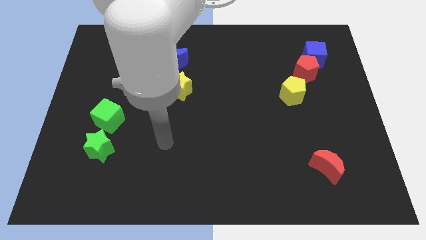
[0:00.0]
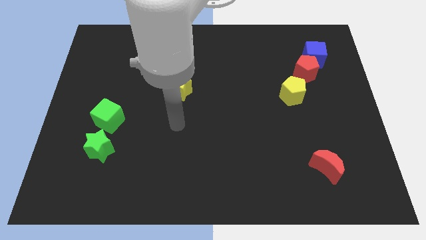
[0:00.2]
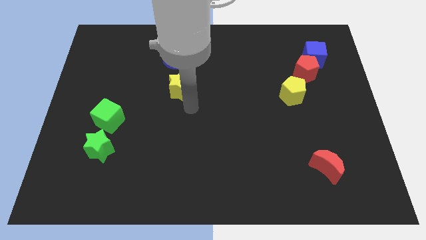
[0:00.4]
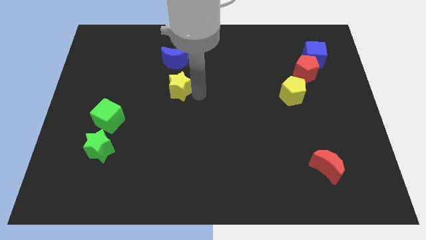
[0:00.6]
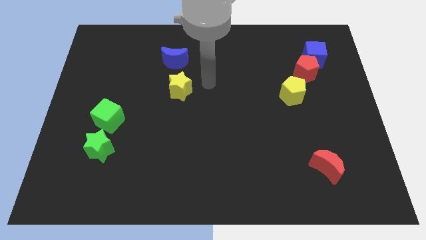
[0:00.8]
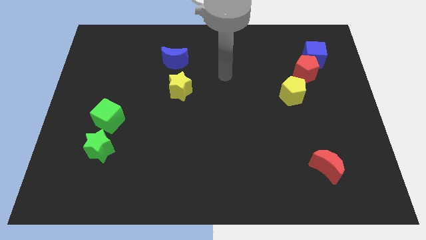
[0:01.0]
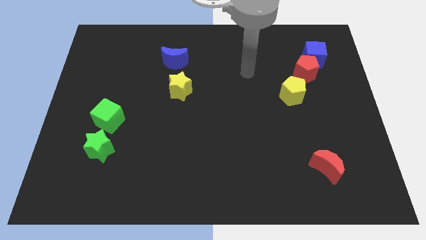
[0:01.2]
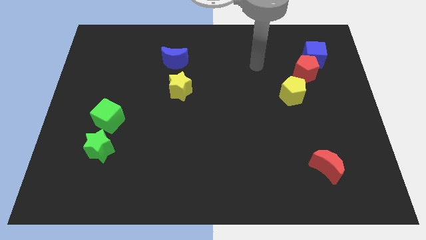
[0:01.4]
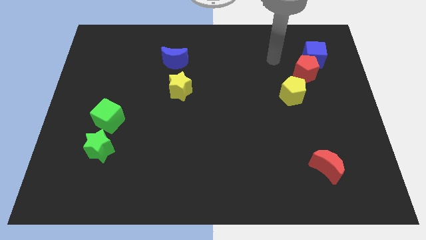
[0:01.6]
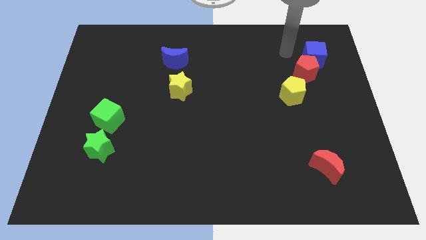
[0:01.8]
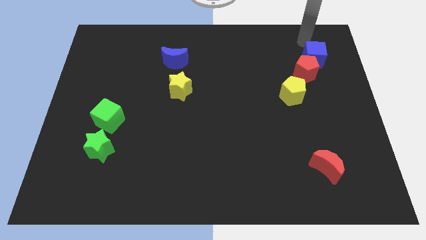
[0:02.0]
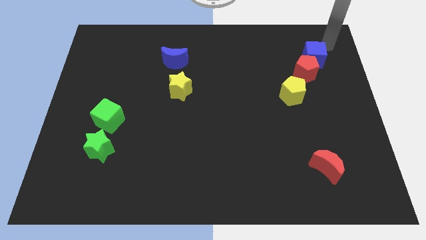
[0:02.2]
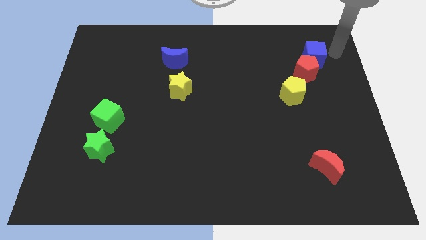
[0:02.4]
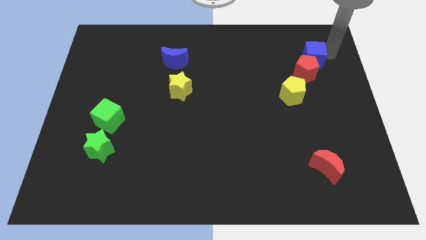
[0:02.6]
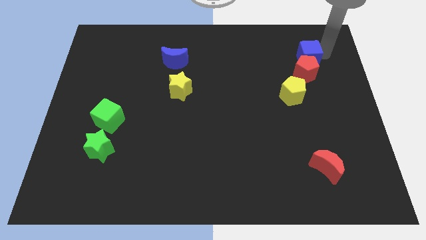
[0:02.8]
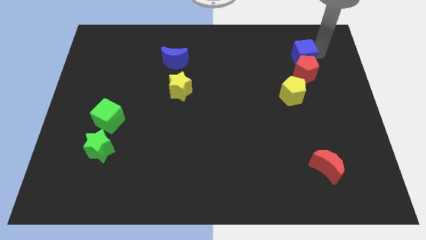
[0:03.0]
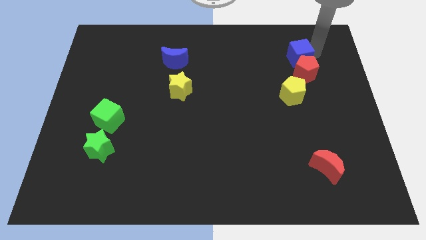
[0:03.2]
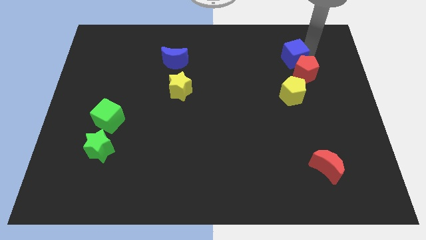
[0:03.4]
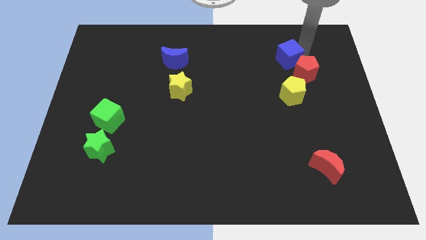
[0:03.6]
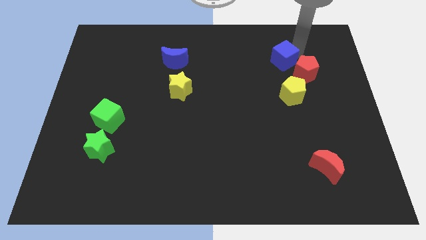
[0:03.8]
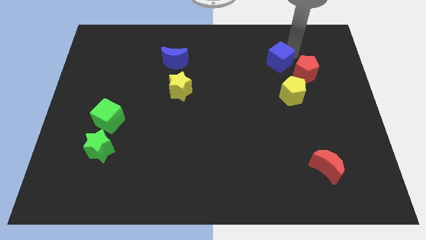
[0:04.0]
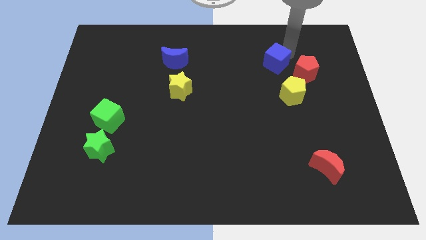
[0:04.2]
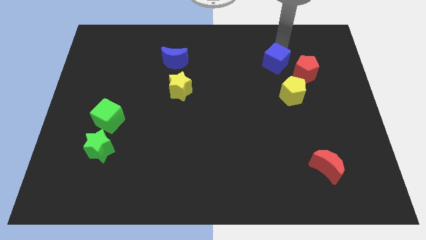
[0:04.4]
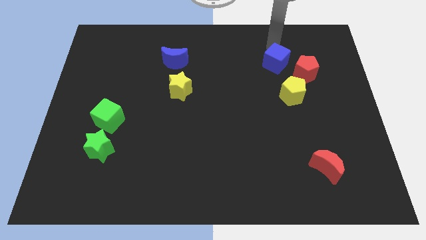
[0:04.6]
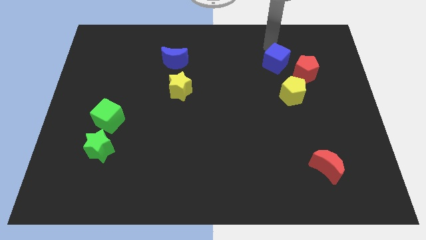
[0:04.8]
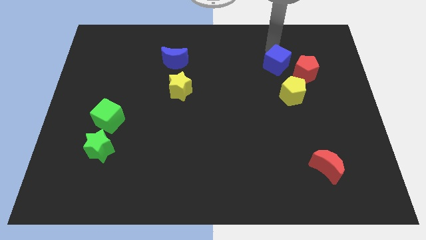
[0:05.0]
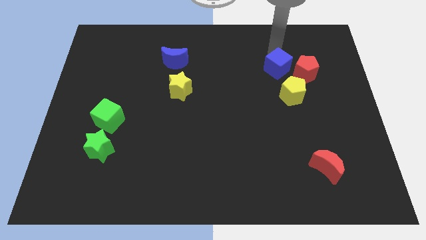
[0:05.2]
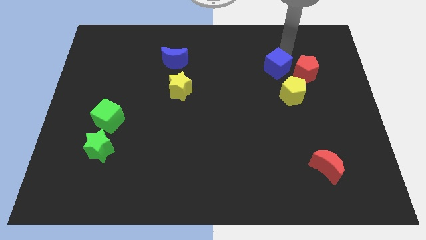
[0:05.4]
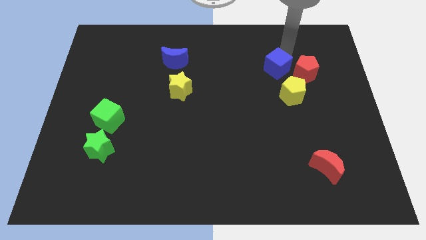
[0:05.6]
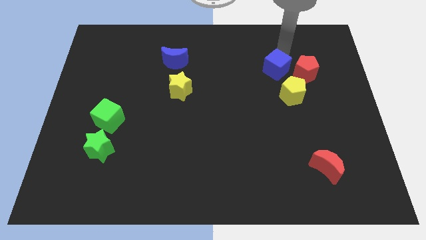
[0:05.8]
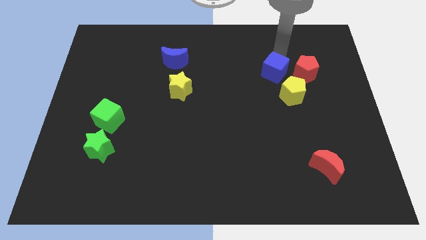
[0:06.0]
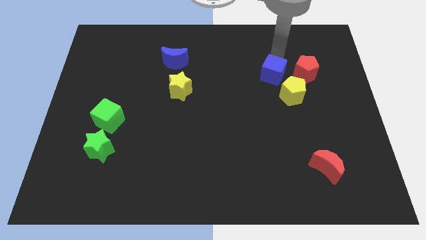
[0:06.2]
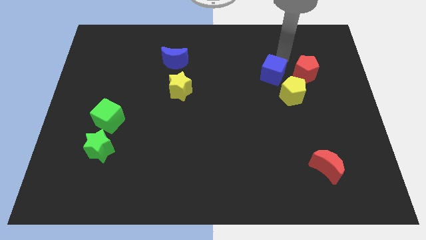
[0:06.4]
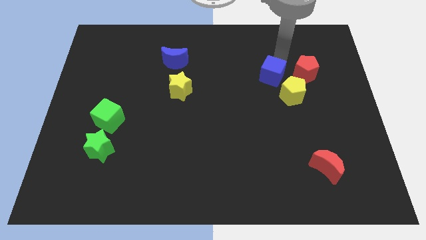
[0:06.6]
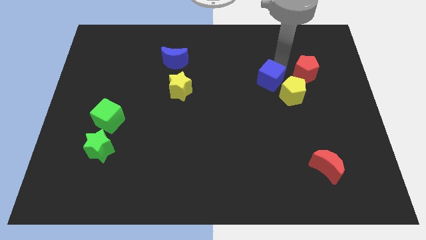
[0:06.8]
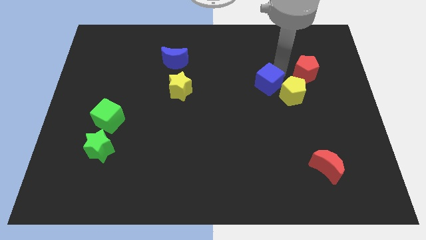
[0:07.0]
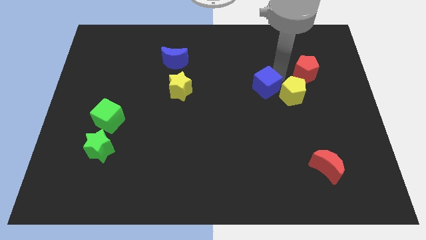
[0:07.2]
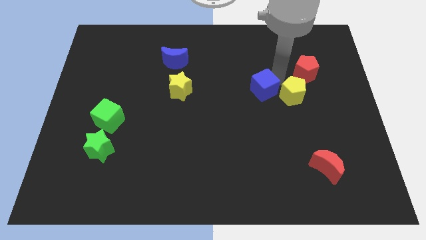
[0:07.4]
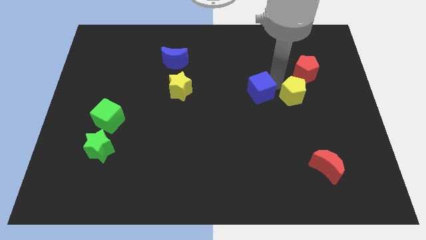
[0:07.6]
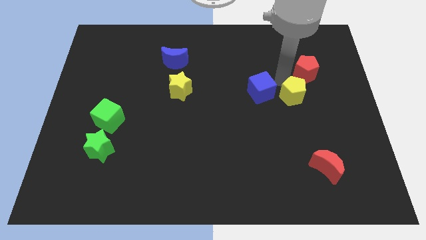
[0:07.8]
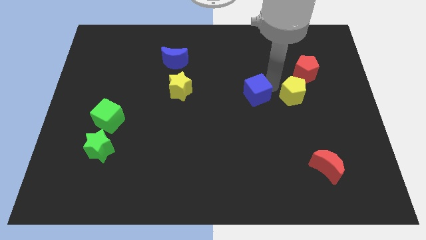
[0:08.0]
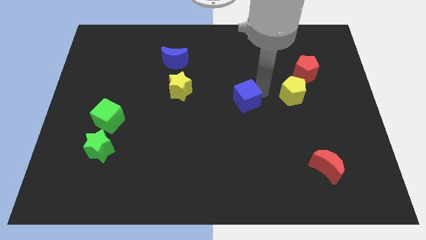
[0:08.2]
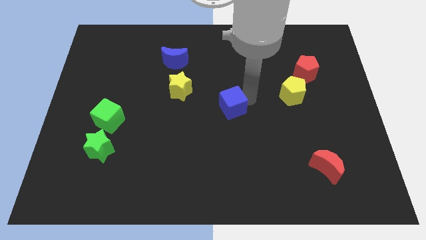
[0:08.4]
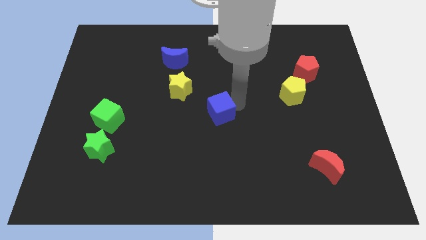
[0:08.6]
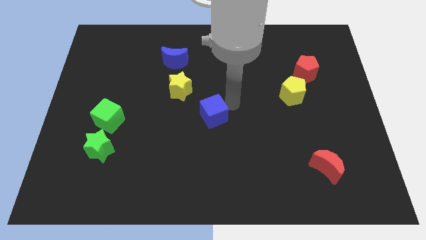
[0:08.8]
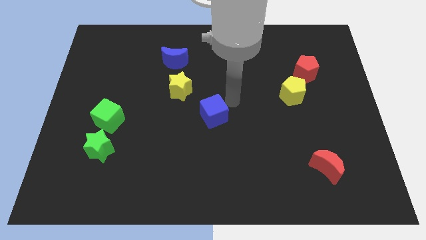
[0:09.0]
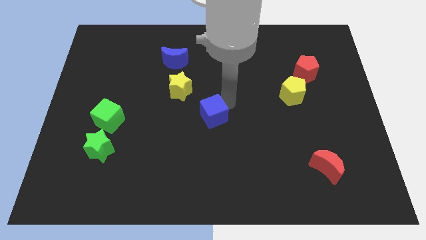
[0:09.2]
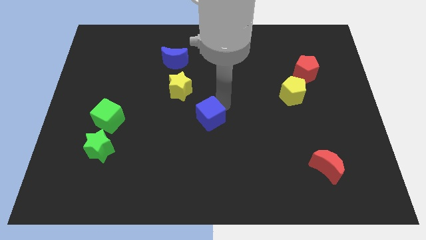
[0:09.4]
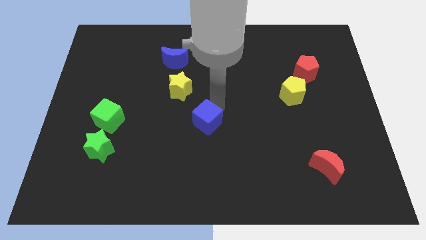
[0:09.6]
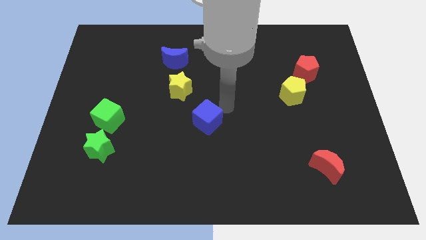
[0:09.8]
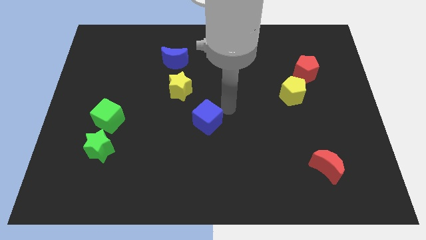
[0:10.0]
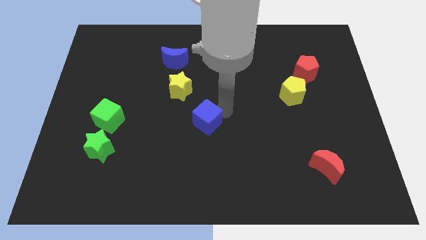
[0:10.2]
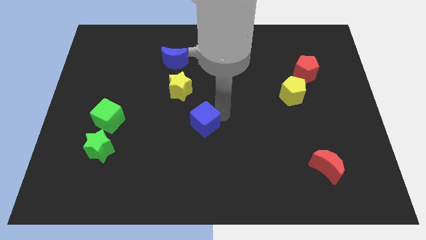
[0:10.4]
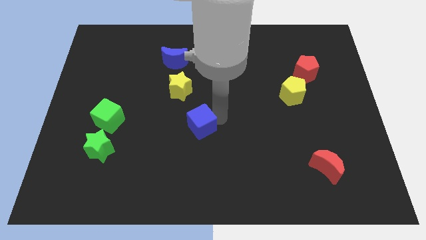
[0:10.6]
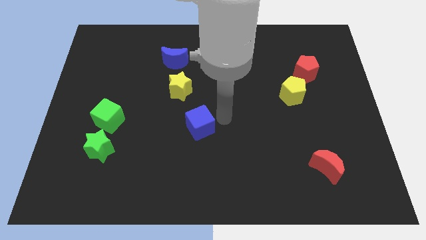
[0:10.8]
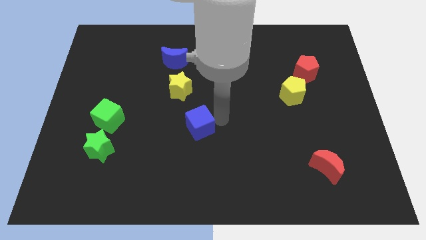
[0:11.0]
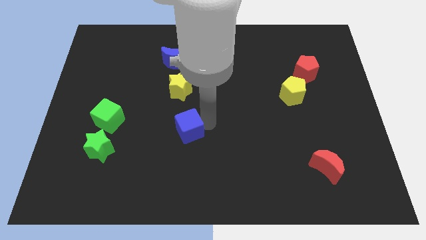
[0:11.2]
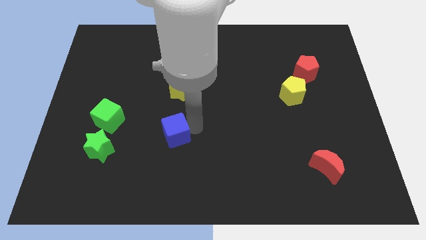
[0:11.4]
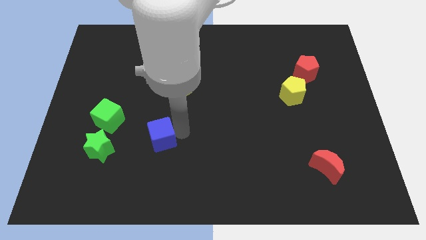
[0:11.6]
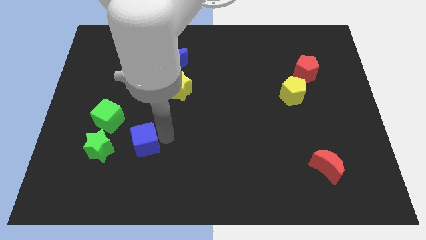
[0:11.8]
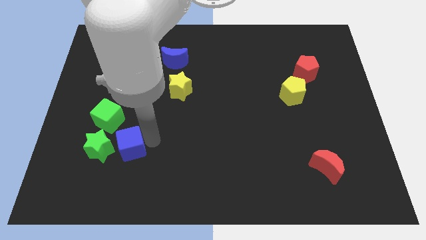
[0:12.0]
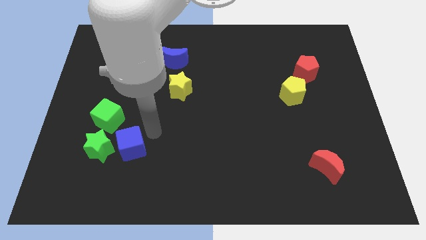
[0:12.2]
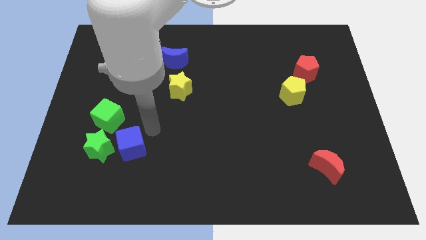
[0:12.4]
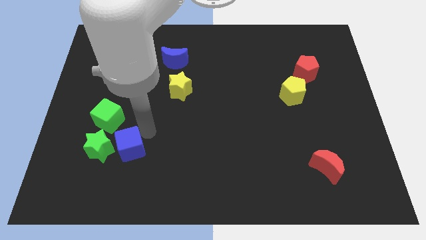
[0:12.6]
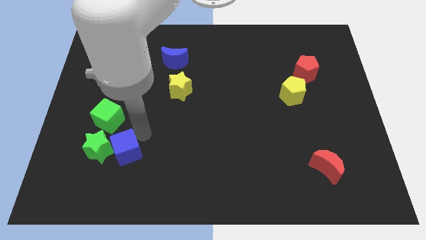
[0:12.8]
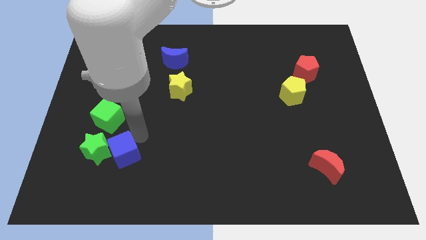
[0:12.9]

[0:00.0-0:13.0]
put the blue cube below the green cube

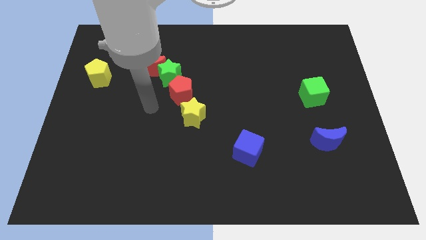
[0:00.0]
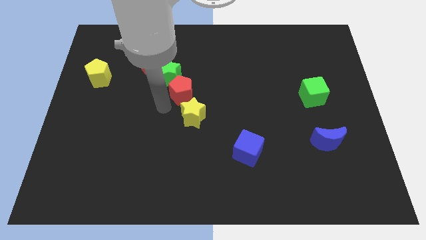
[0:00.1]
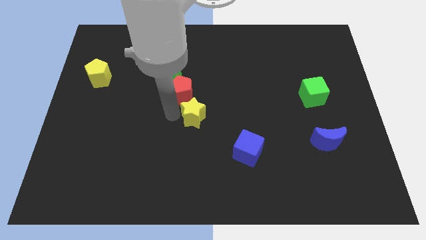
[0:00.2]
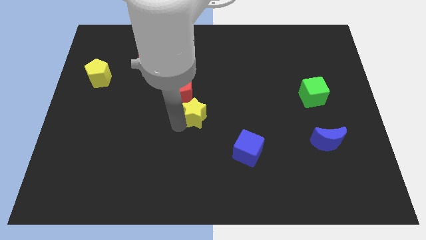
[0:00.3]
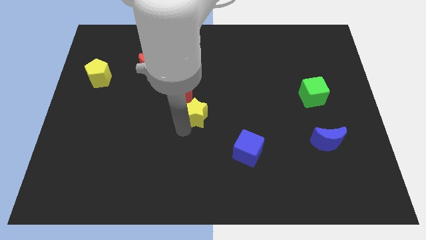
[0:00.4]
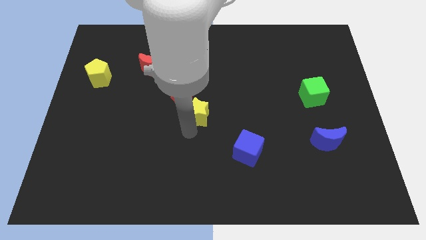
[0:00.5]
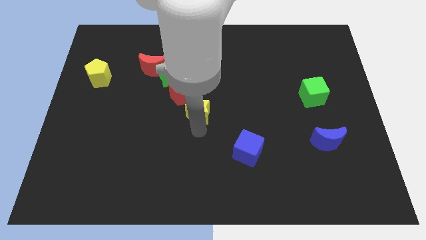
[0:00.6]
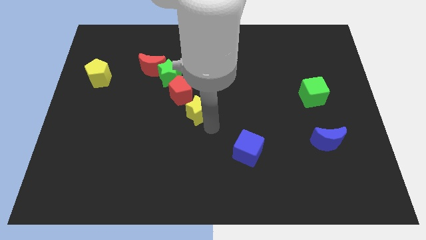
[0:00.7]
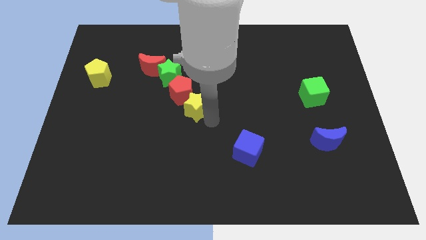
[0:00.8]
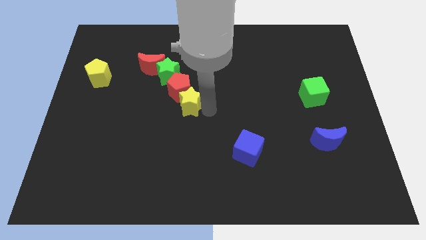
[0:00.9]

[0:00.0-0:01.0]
put the red pentagon just left of the yellow star
